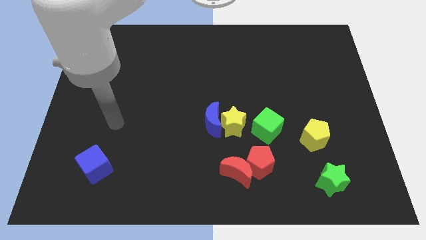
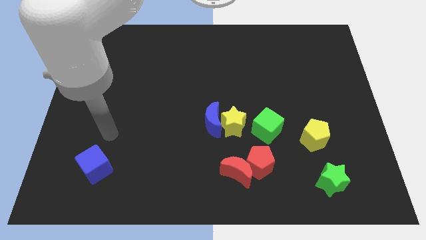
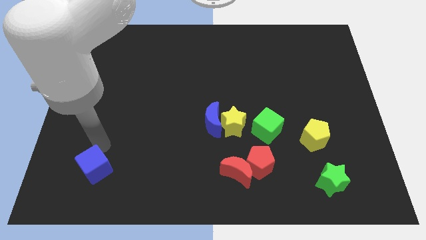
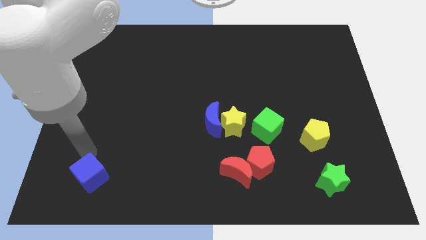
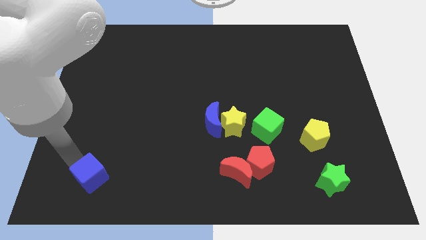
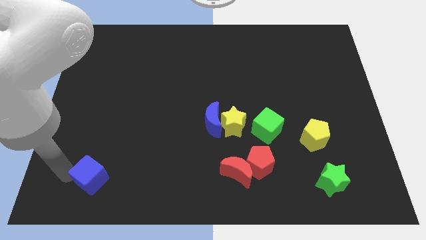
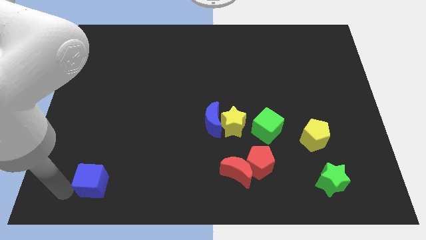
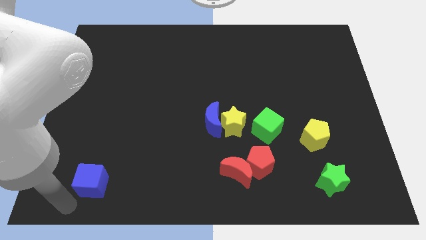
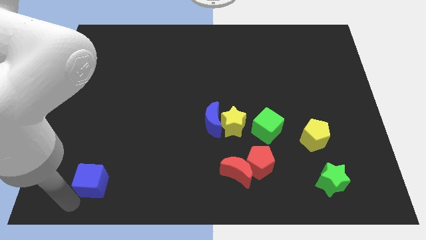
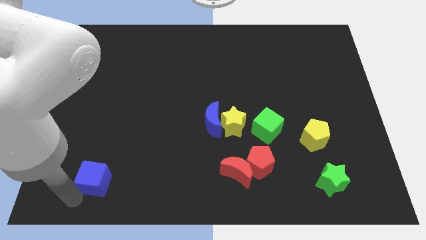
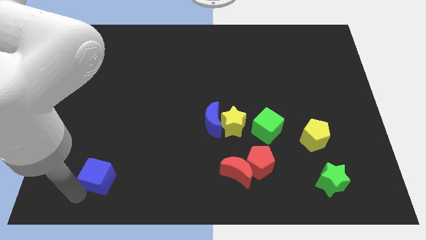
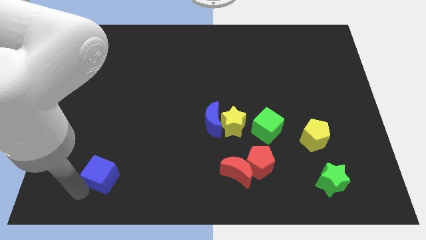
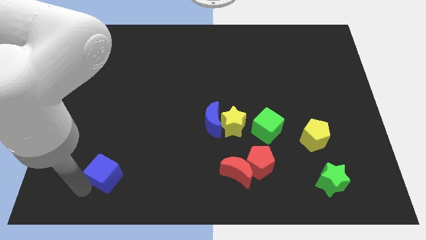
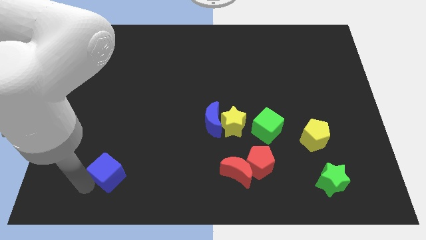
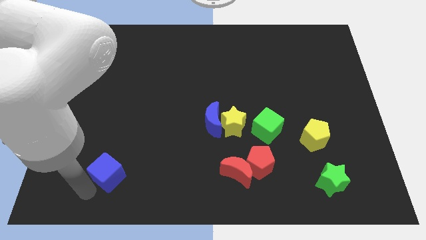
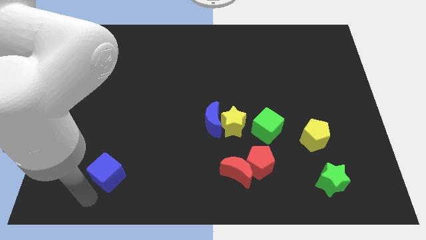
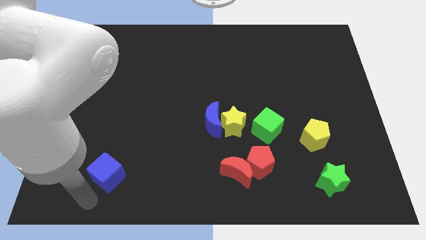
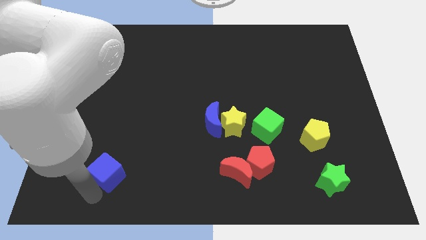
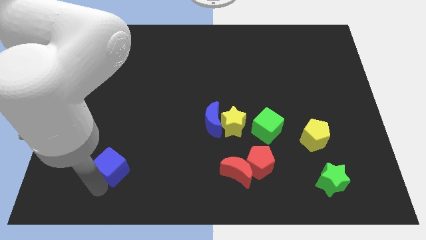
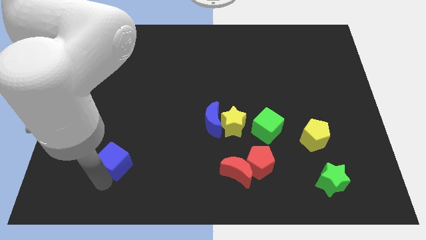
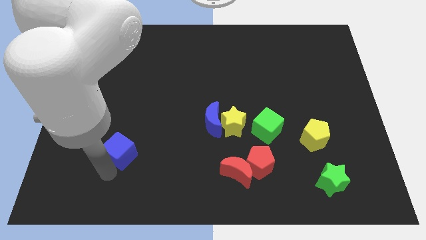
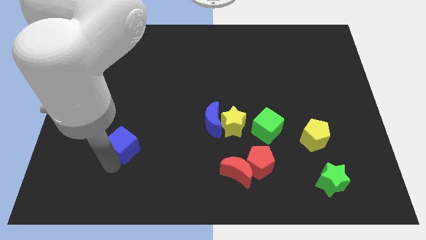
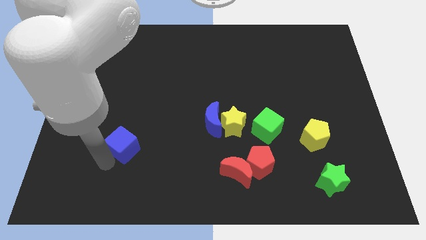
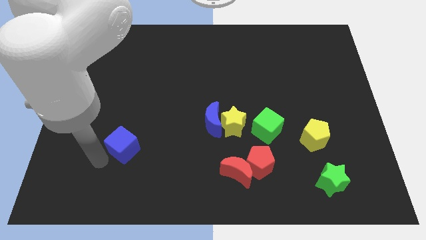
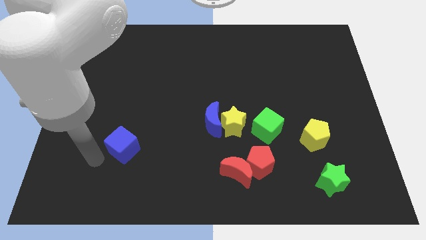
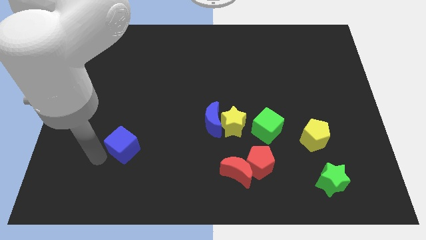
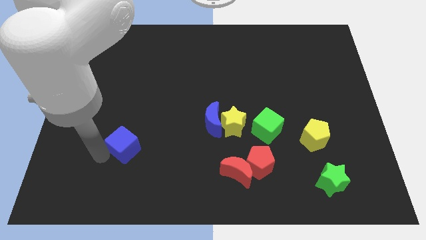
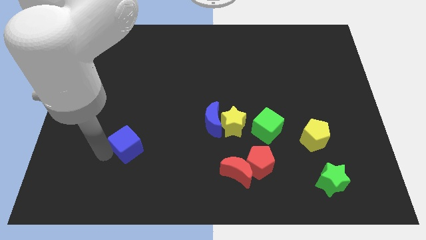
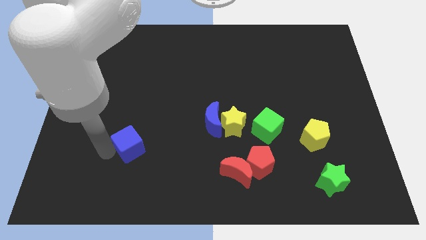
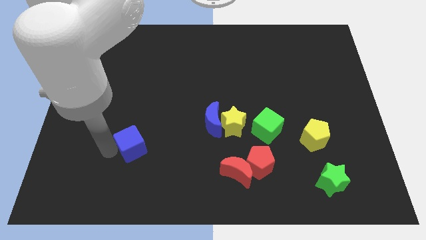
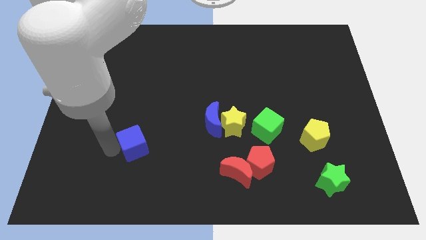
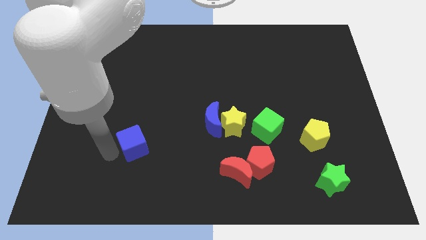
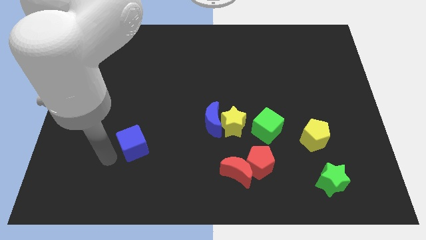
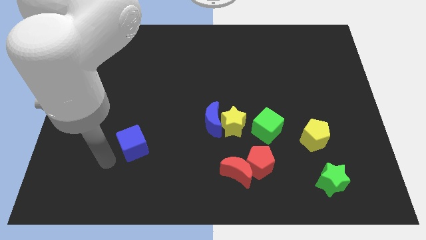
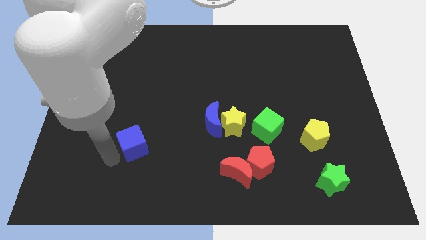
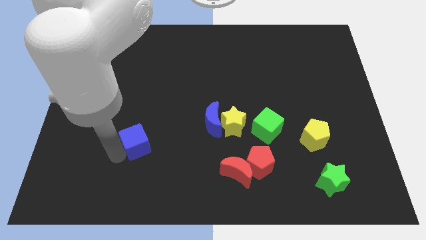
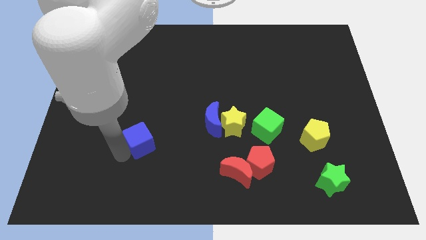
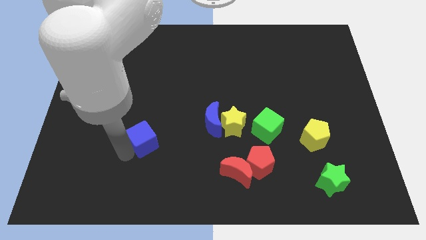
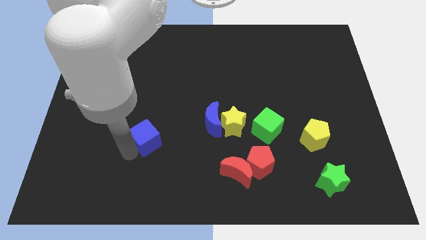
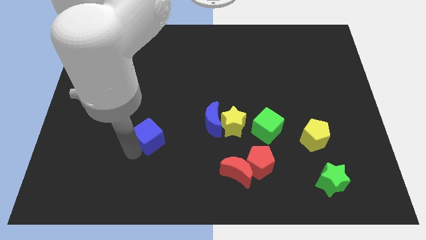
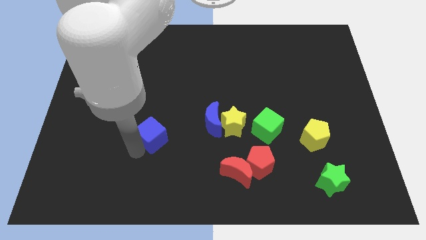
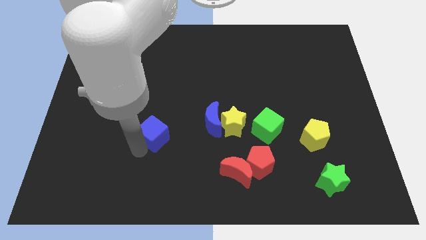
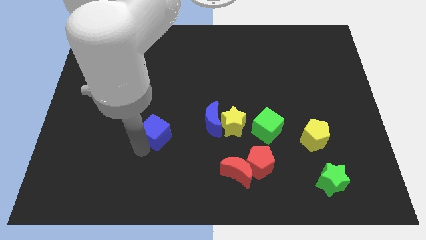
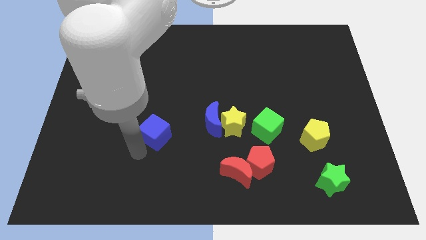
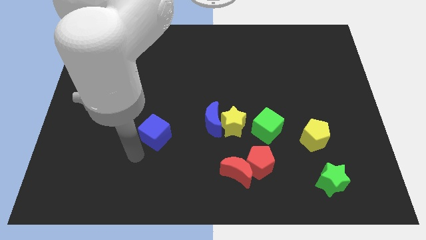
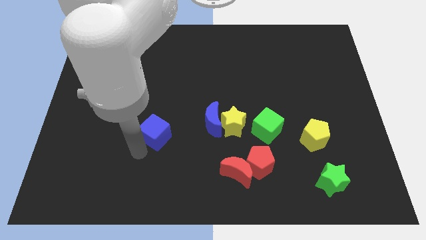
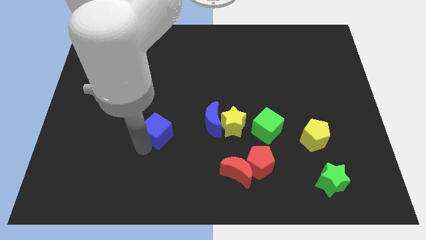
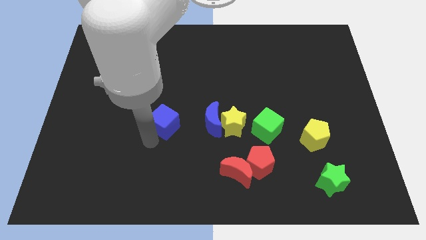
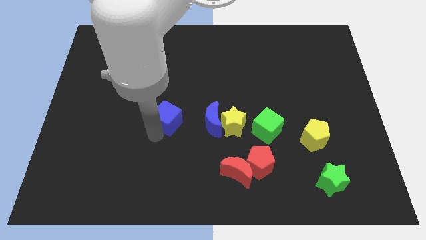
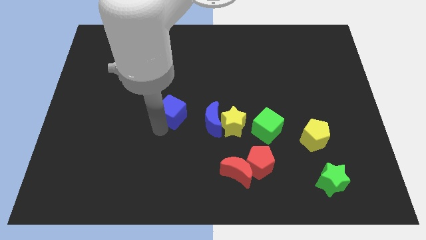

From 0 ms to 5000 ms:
slide the blue cube upwards and then to the right

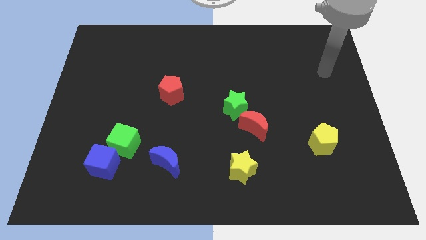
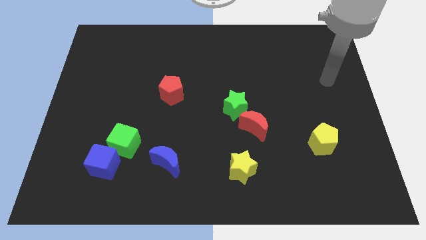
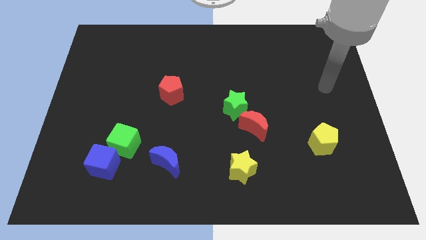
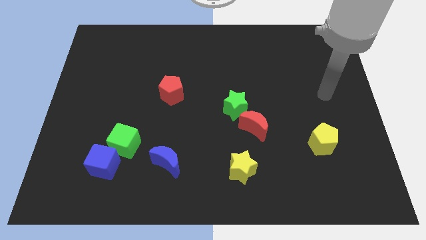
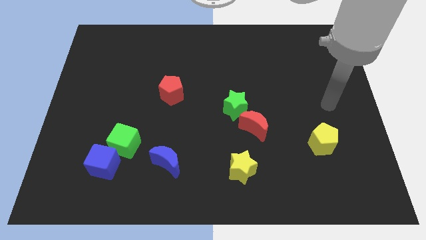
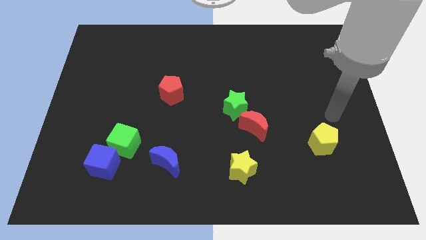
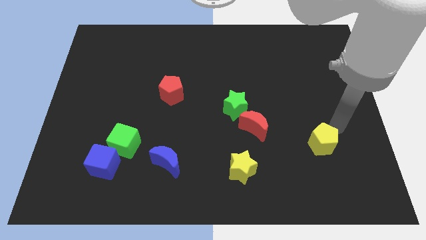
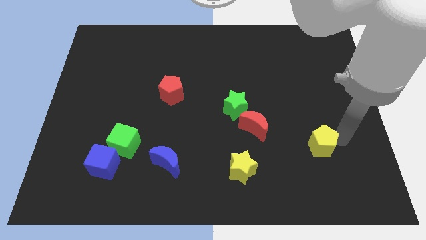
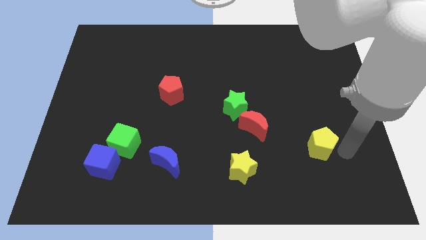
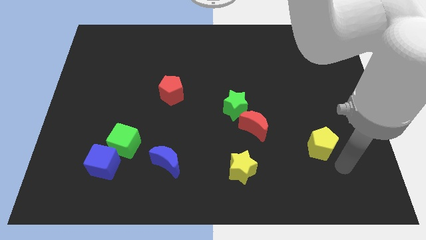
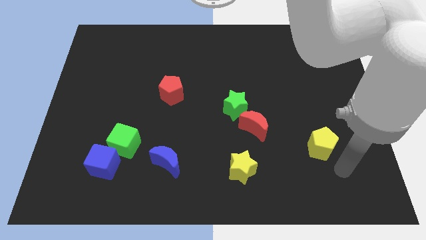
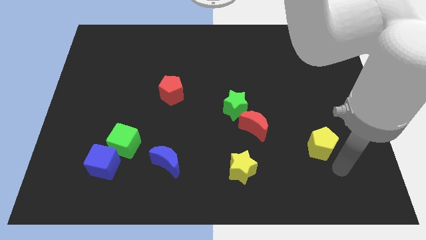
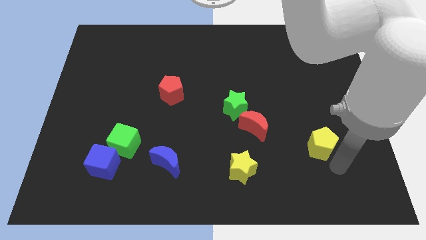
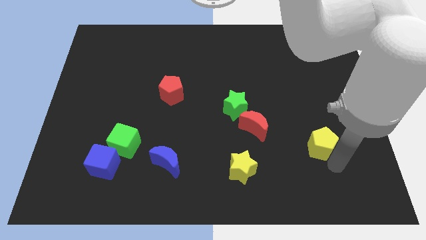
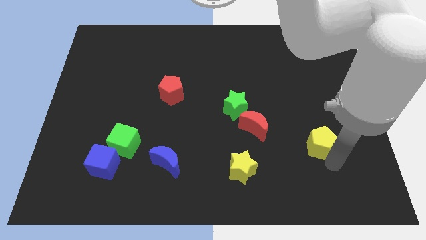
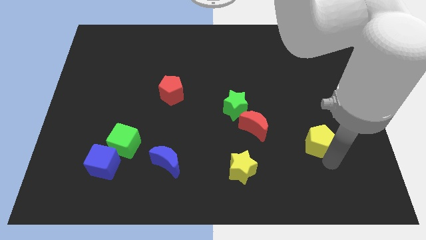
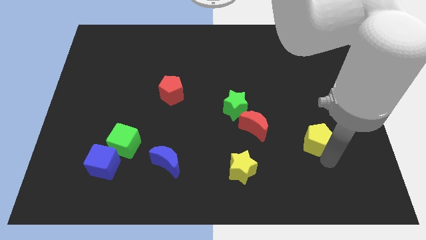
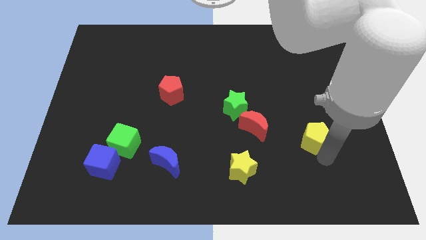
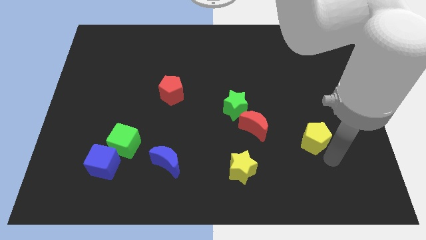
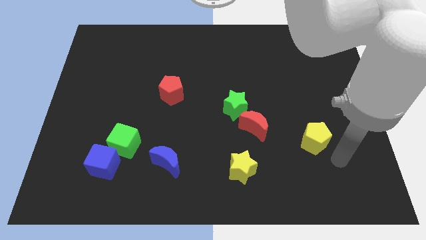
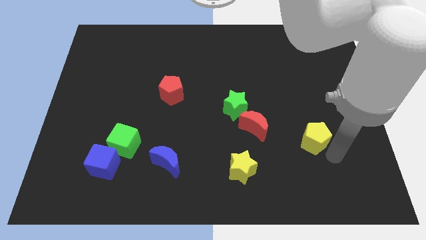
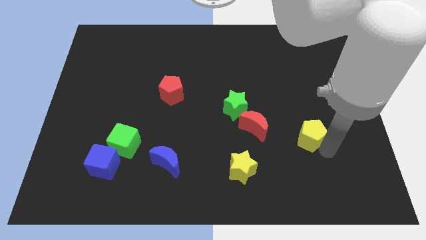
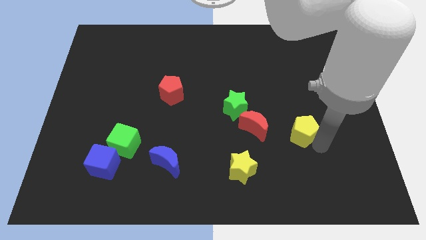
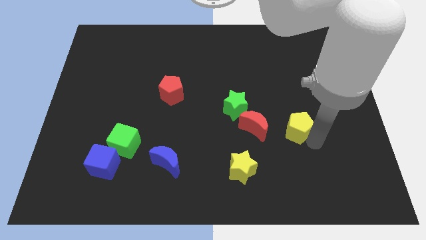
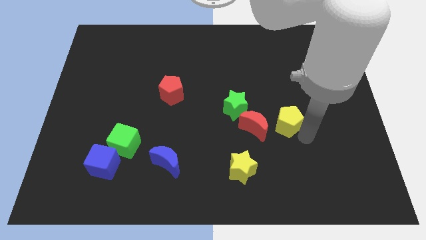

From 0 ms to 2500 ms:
slightly move the yellow pentagon up and then left

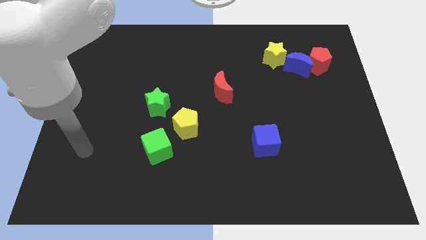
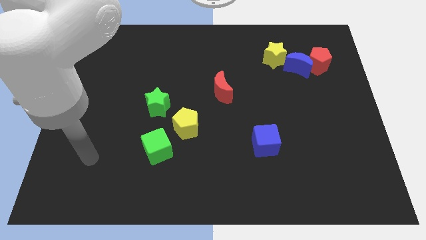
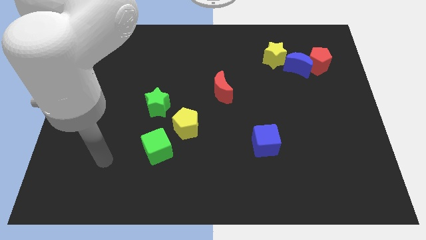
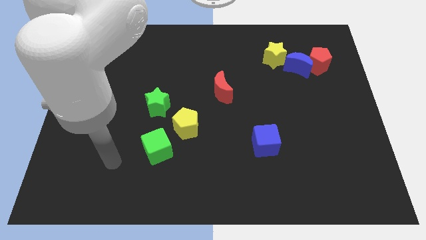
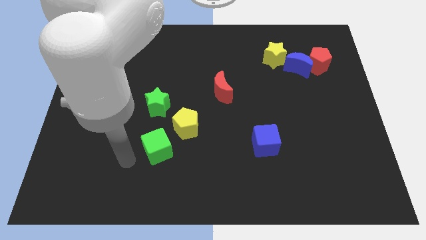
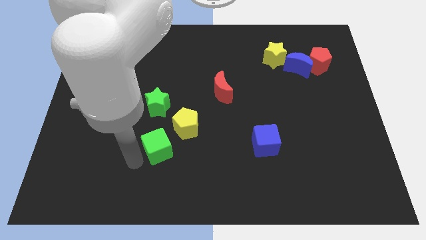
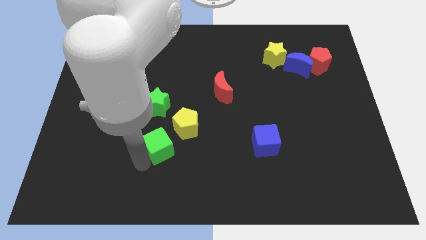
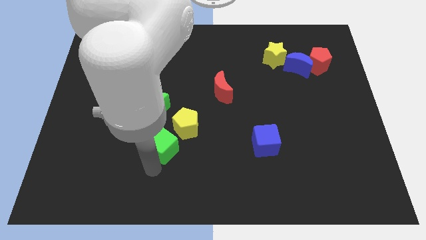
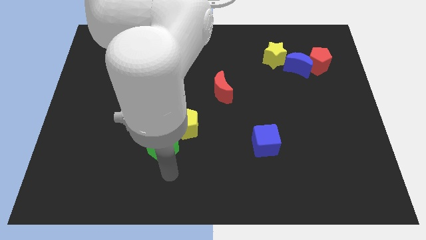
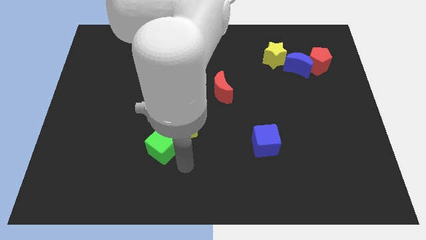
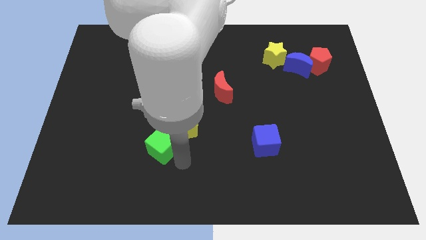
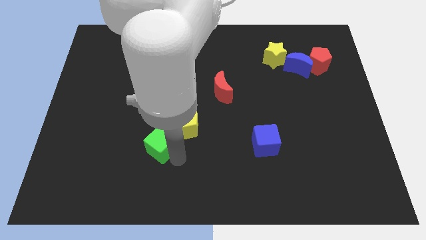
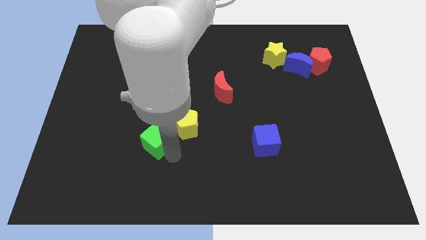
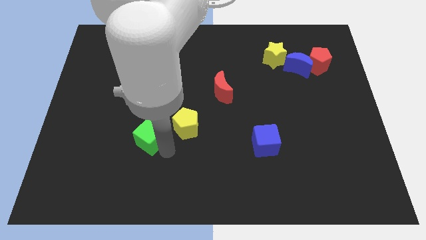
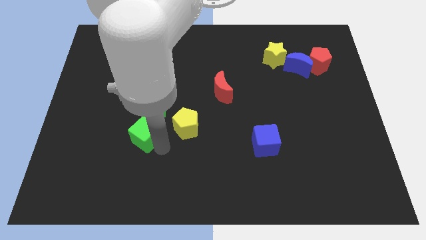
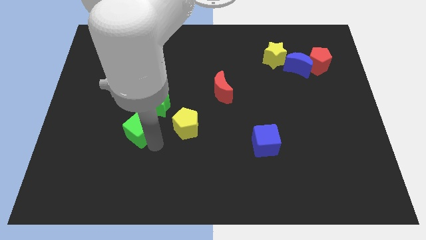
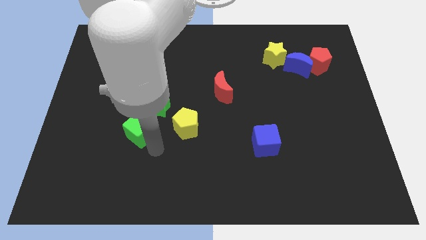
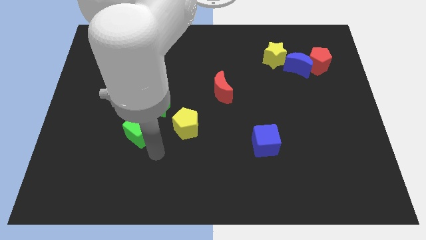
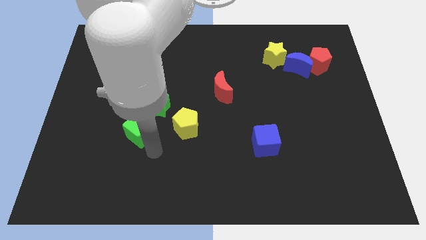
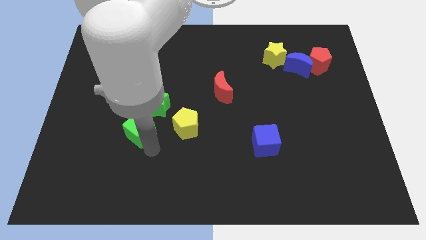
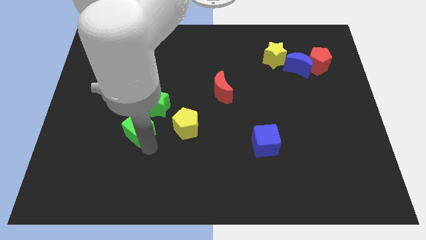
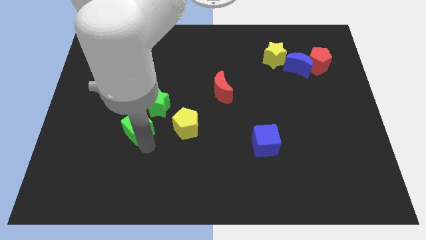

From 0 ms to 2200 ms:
move the green cube slightly up and to the left diagonally
